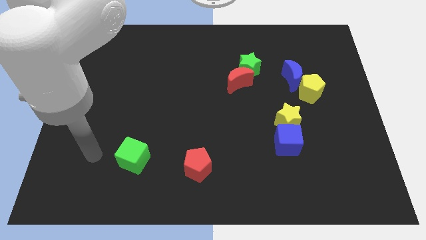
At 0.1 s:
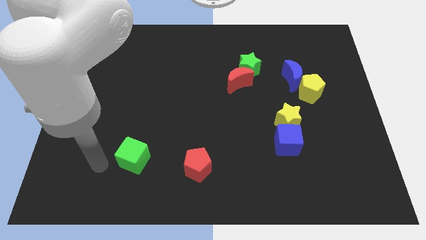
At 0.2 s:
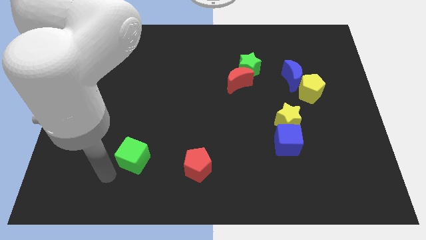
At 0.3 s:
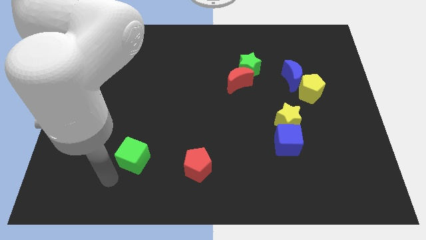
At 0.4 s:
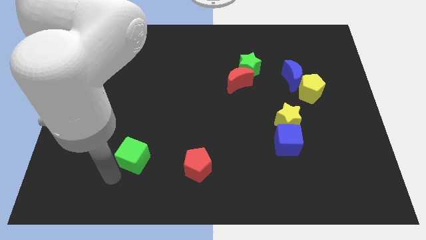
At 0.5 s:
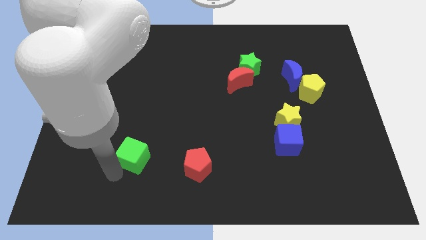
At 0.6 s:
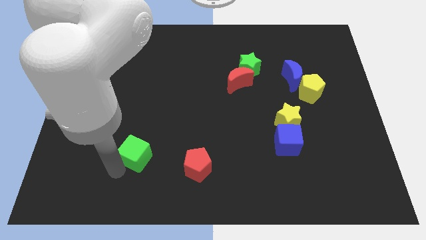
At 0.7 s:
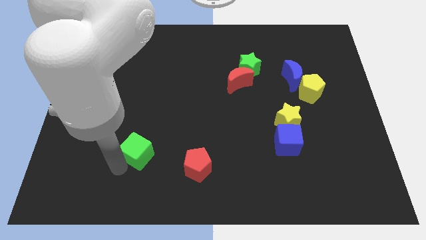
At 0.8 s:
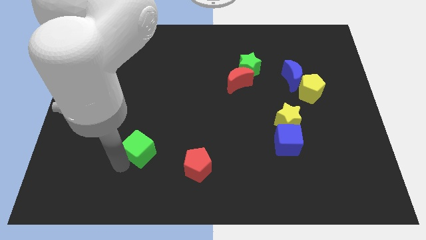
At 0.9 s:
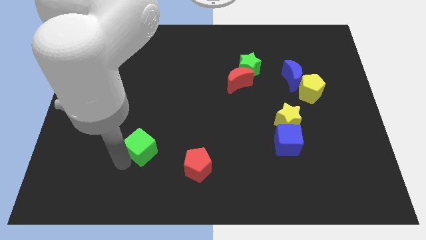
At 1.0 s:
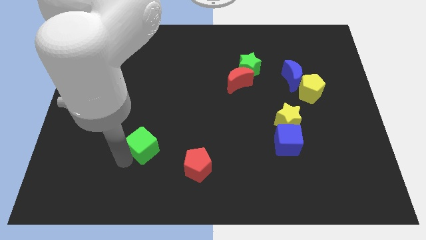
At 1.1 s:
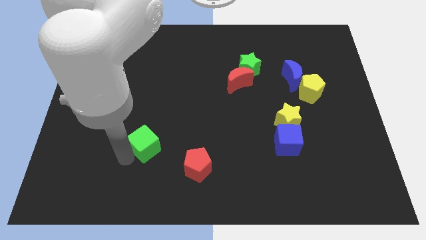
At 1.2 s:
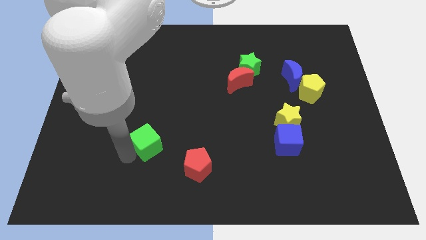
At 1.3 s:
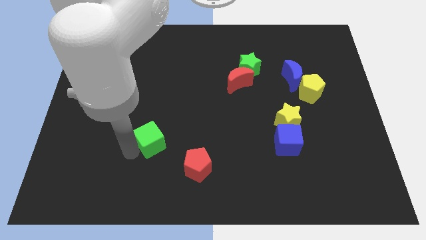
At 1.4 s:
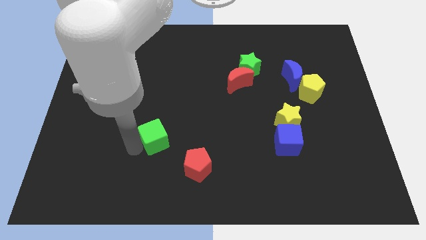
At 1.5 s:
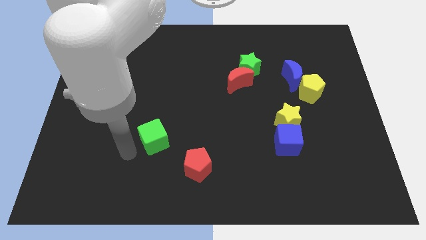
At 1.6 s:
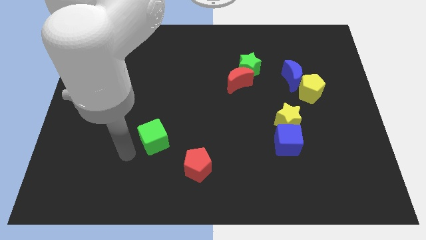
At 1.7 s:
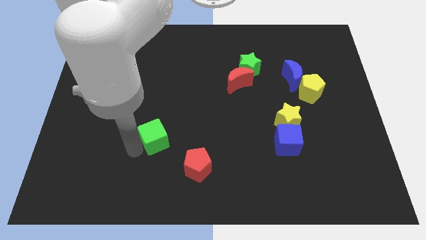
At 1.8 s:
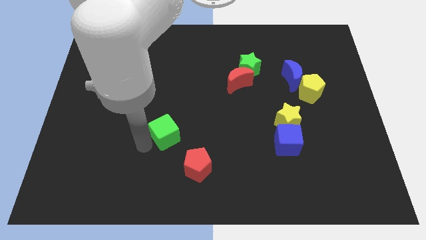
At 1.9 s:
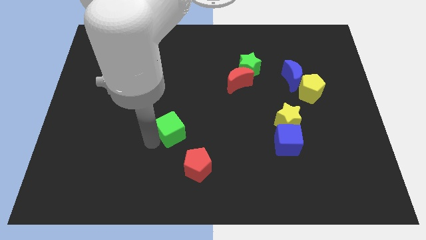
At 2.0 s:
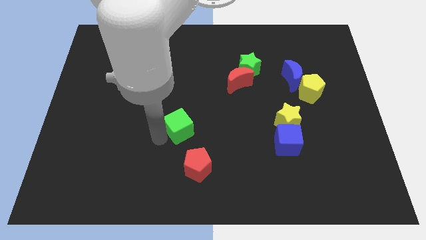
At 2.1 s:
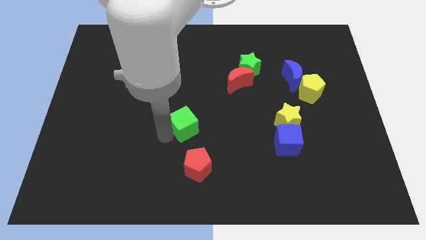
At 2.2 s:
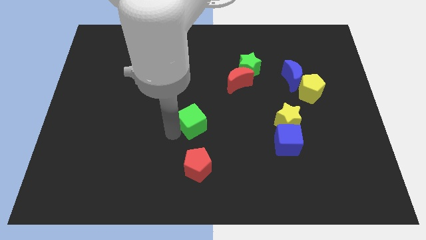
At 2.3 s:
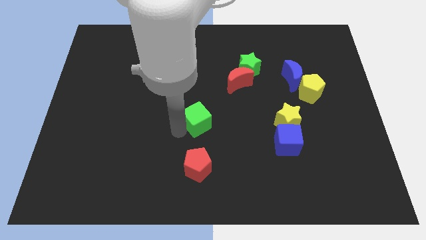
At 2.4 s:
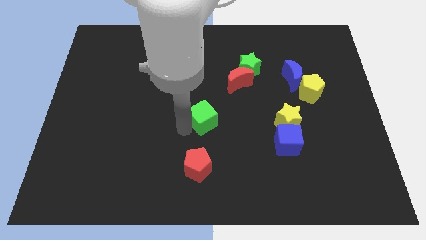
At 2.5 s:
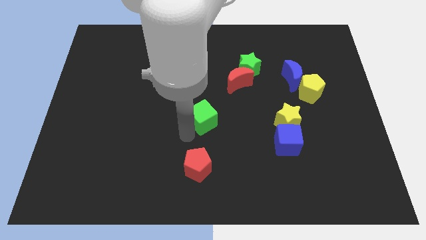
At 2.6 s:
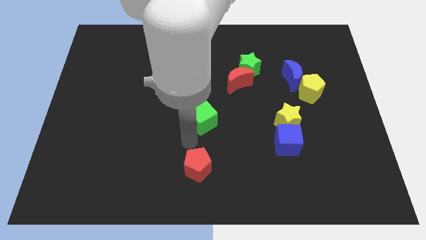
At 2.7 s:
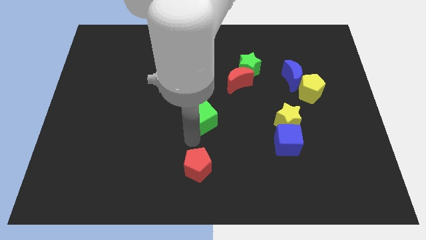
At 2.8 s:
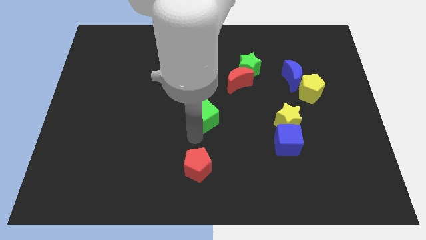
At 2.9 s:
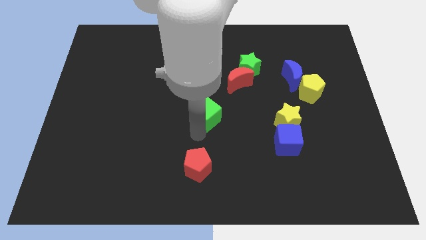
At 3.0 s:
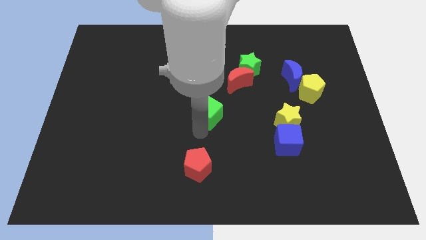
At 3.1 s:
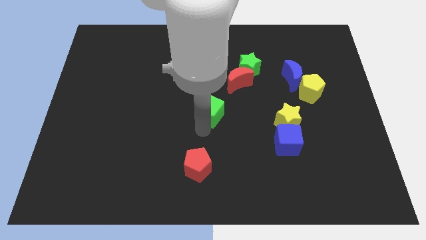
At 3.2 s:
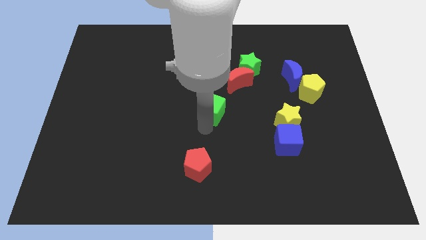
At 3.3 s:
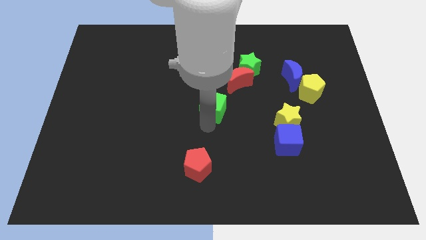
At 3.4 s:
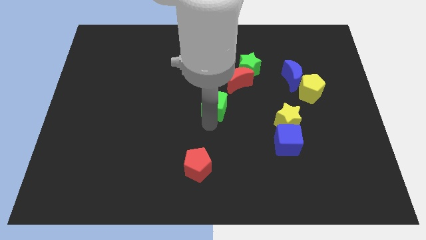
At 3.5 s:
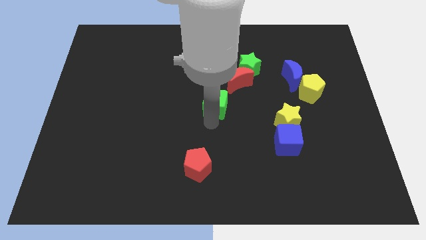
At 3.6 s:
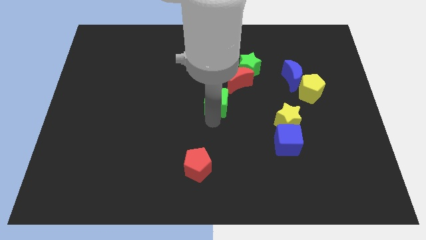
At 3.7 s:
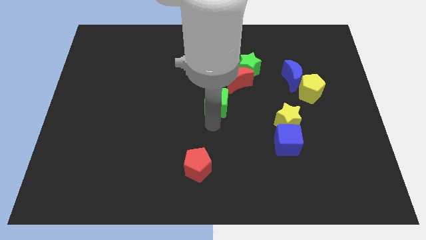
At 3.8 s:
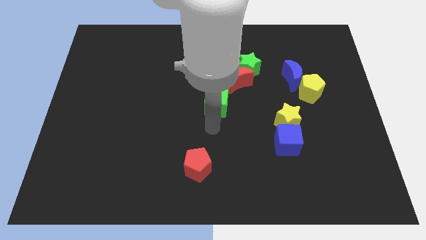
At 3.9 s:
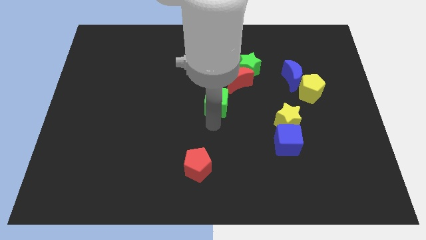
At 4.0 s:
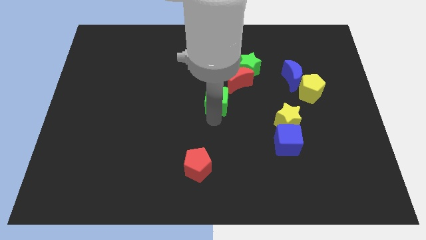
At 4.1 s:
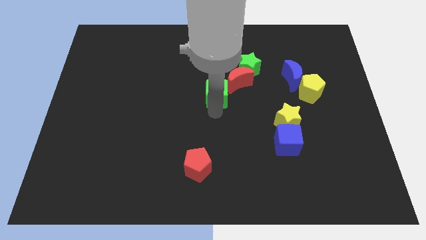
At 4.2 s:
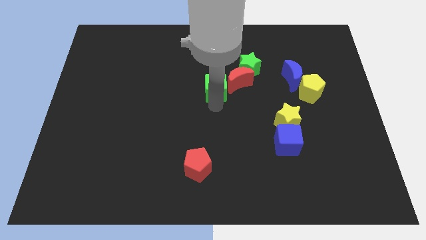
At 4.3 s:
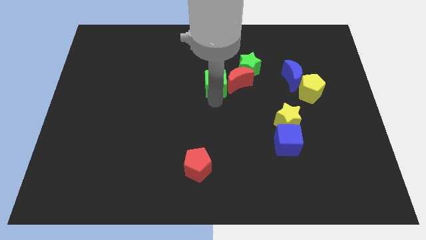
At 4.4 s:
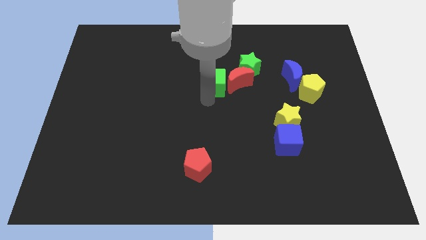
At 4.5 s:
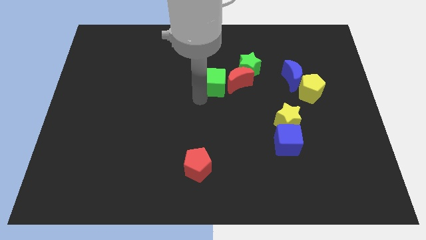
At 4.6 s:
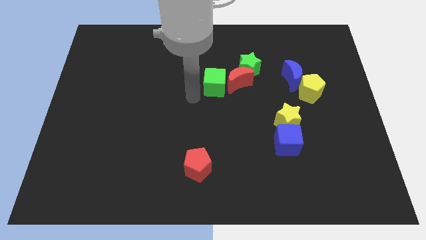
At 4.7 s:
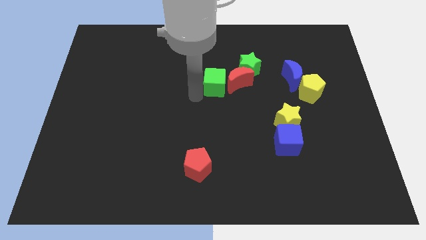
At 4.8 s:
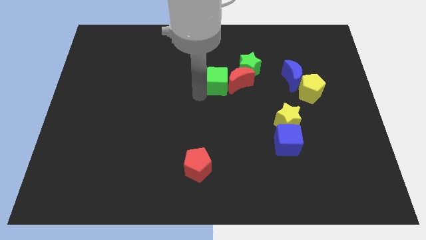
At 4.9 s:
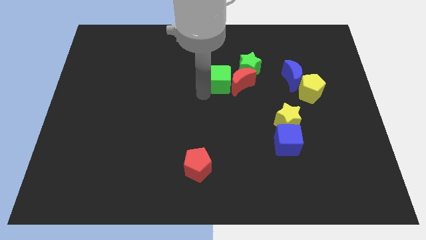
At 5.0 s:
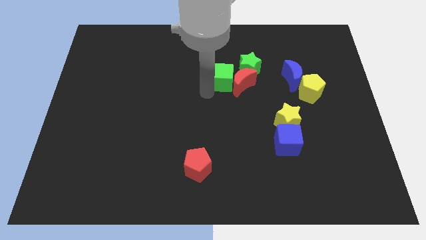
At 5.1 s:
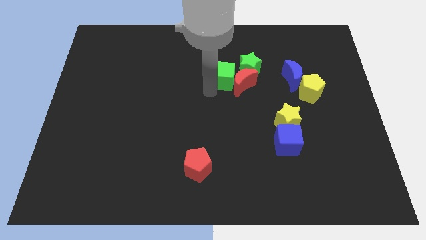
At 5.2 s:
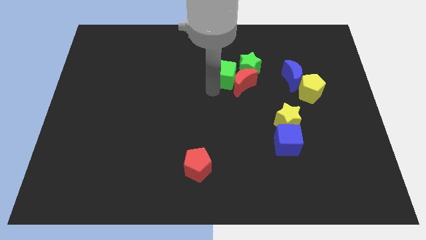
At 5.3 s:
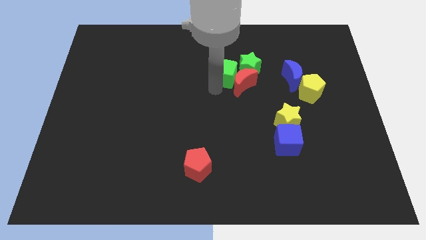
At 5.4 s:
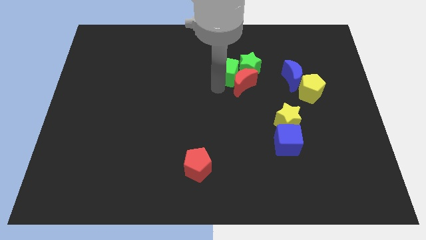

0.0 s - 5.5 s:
move the green cube close to the green star

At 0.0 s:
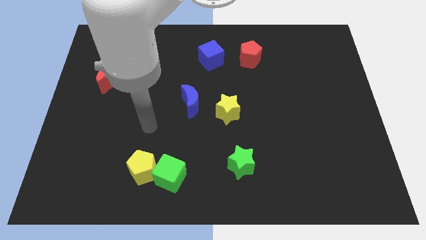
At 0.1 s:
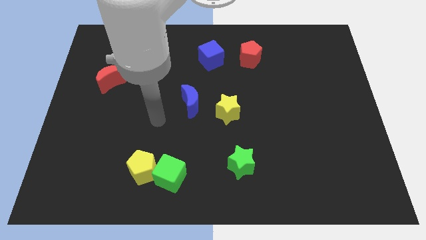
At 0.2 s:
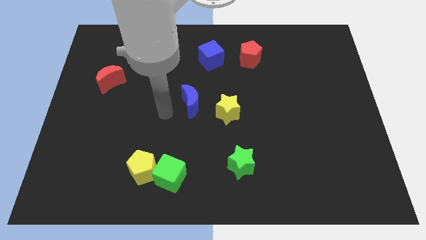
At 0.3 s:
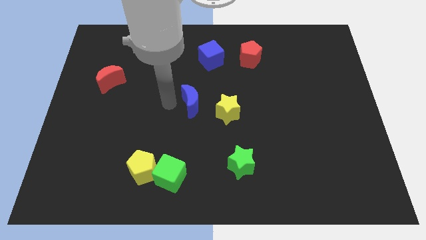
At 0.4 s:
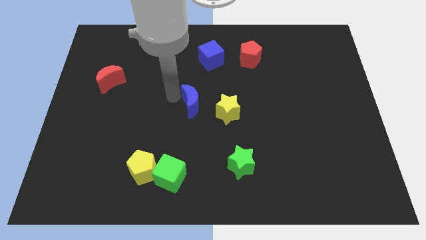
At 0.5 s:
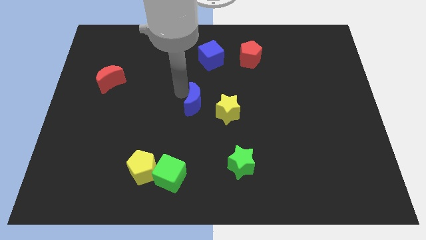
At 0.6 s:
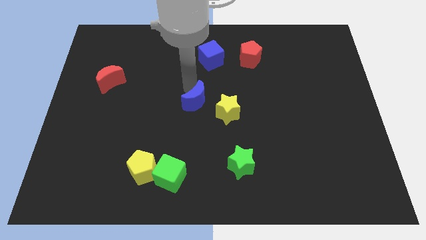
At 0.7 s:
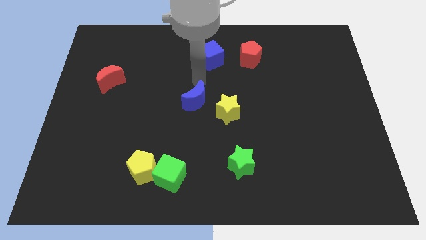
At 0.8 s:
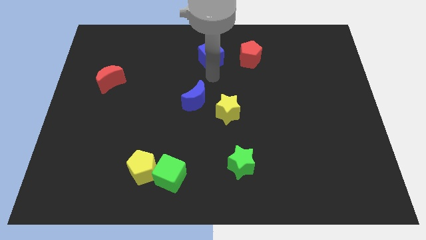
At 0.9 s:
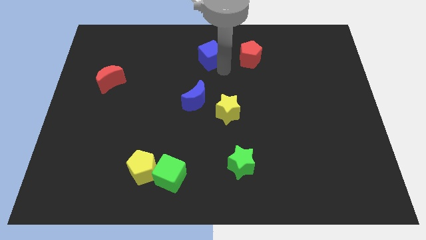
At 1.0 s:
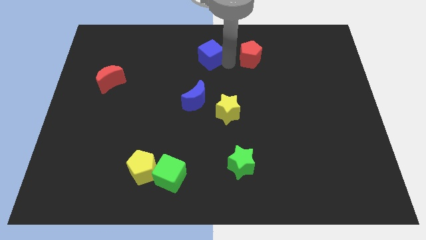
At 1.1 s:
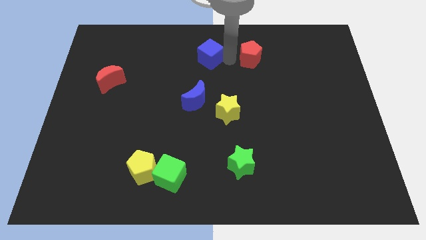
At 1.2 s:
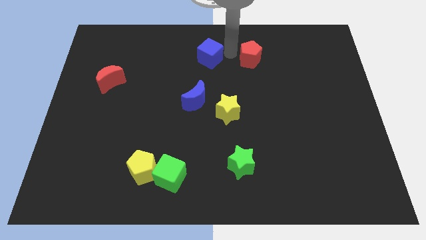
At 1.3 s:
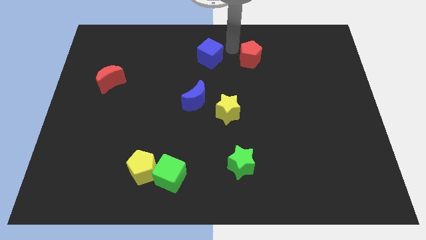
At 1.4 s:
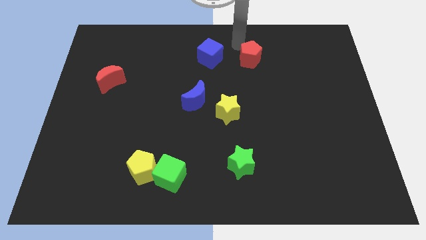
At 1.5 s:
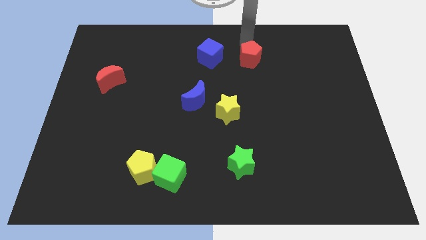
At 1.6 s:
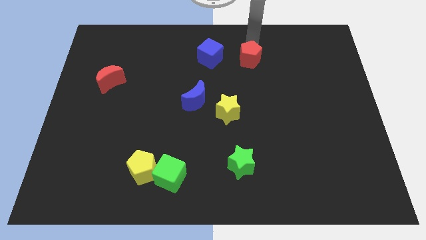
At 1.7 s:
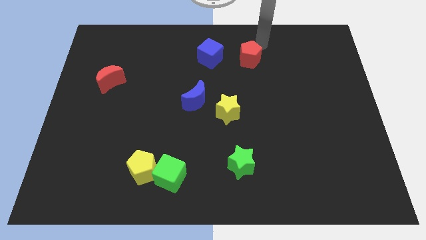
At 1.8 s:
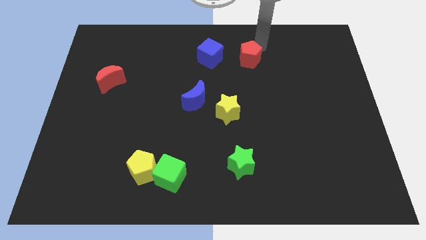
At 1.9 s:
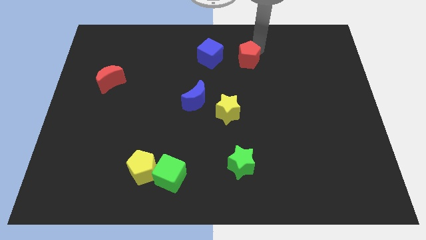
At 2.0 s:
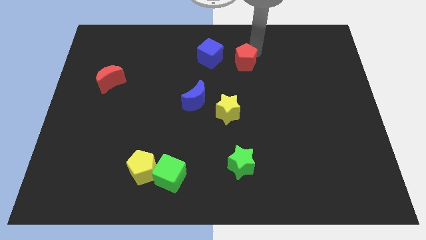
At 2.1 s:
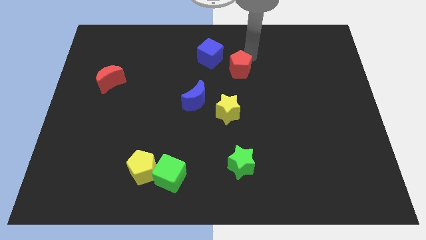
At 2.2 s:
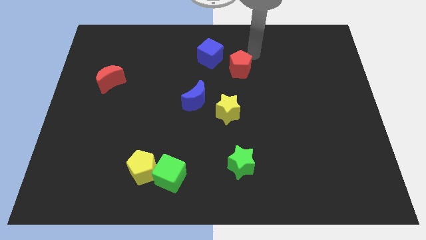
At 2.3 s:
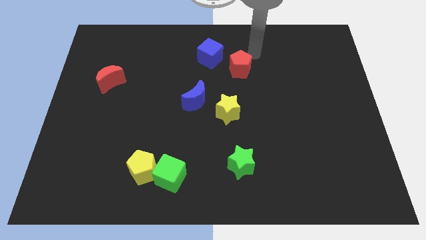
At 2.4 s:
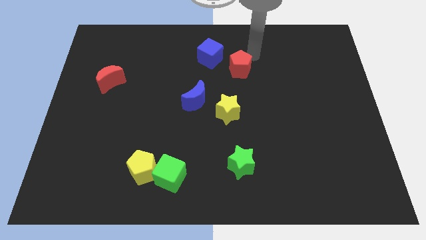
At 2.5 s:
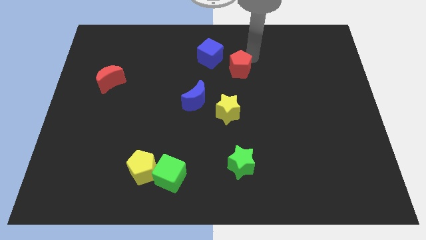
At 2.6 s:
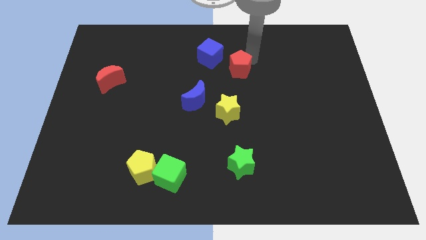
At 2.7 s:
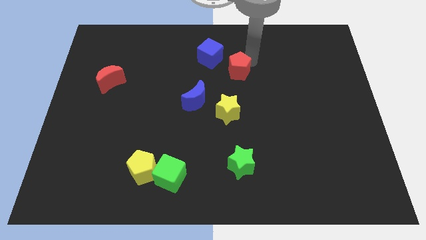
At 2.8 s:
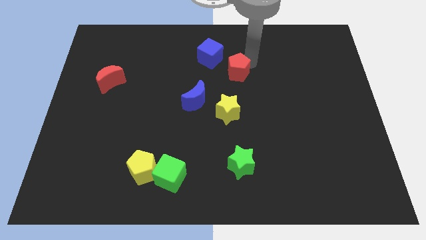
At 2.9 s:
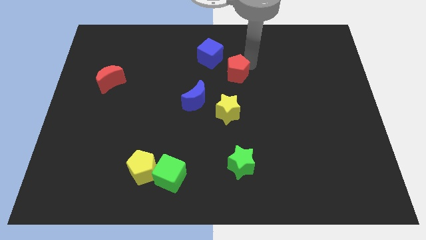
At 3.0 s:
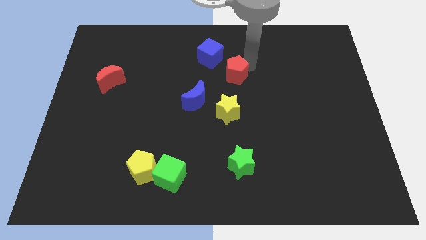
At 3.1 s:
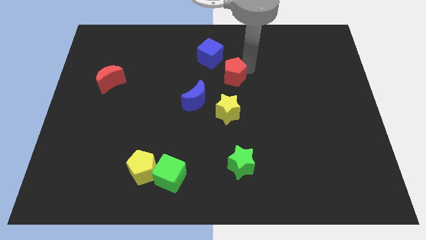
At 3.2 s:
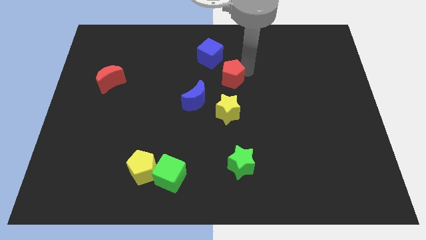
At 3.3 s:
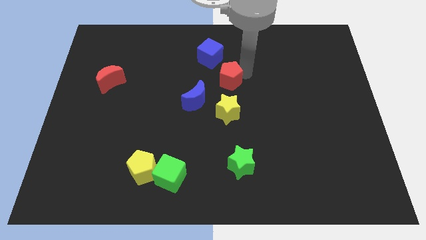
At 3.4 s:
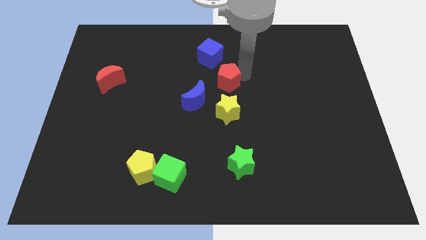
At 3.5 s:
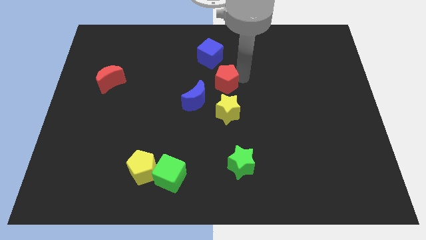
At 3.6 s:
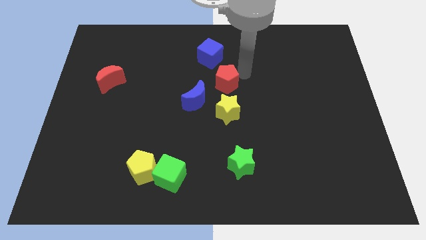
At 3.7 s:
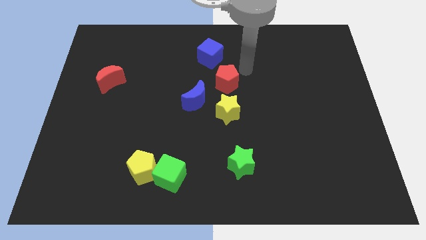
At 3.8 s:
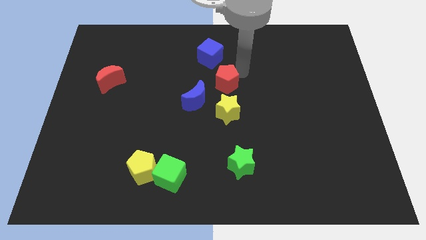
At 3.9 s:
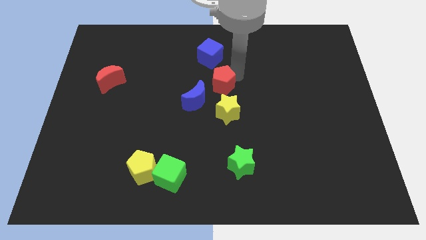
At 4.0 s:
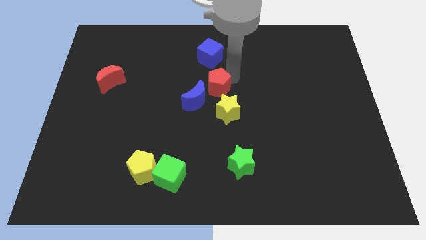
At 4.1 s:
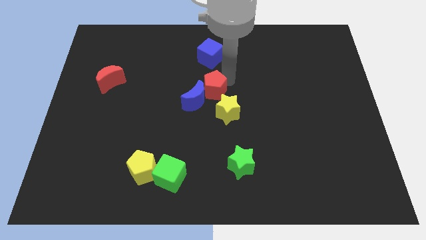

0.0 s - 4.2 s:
slide the red pentagon to the blue moon
